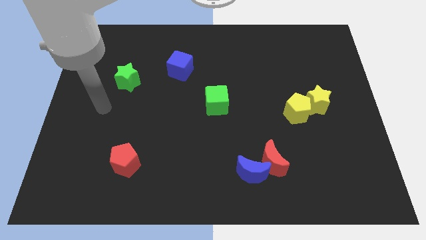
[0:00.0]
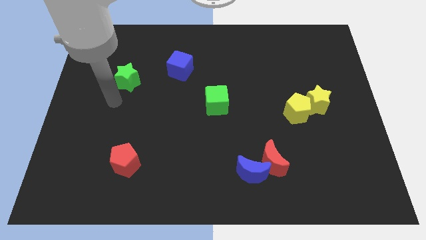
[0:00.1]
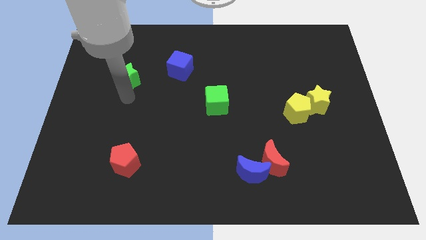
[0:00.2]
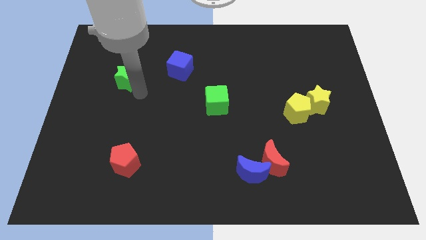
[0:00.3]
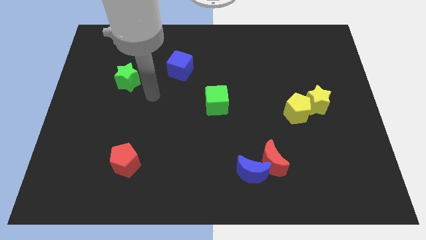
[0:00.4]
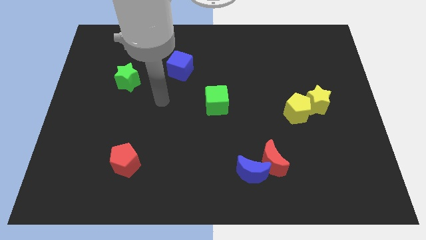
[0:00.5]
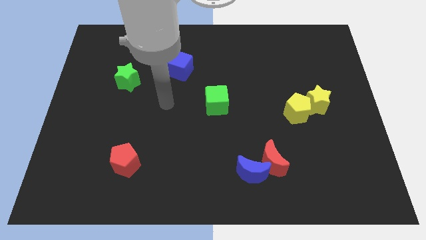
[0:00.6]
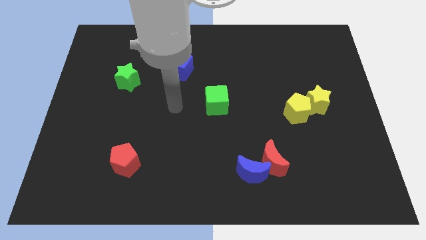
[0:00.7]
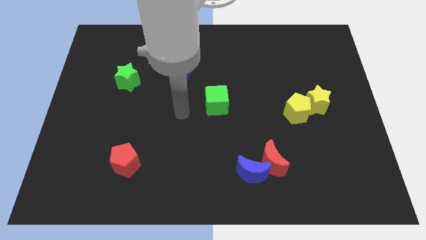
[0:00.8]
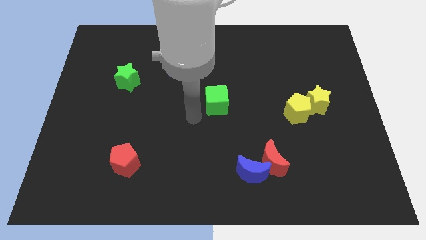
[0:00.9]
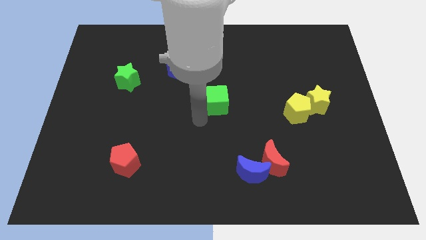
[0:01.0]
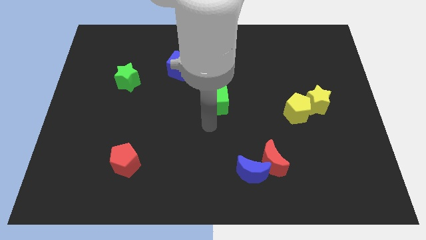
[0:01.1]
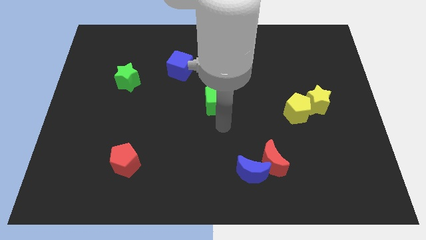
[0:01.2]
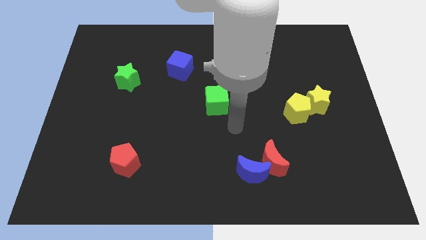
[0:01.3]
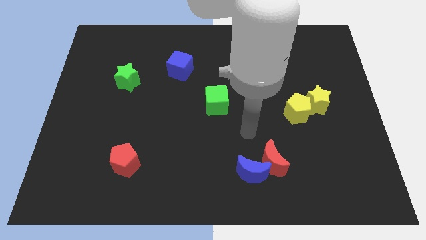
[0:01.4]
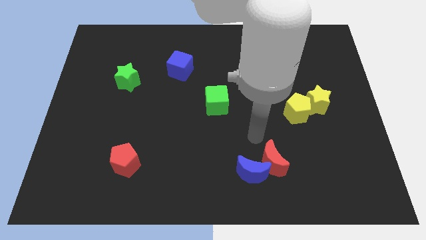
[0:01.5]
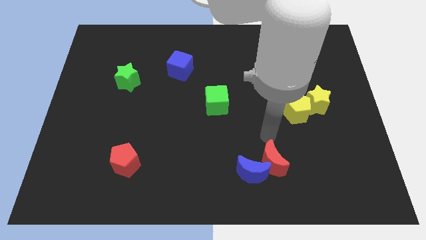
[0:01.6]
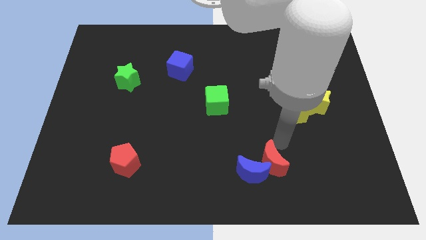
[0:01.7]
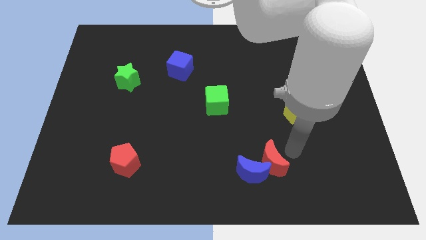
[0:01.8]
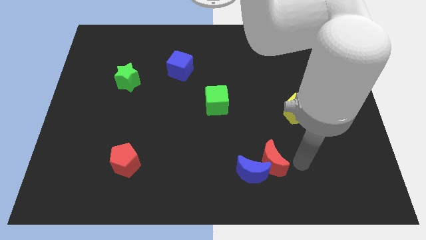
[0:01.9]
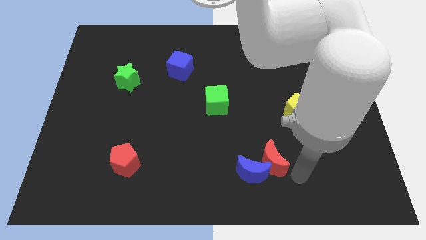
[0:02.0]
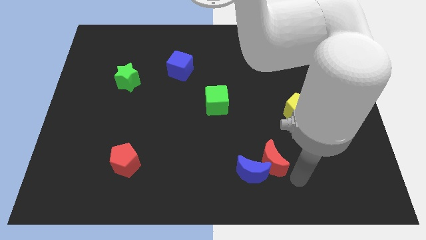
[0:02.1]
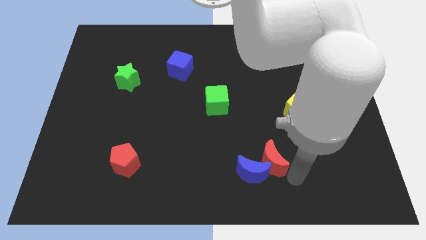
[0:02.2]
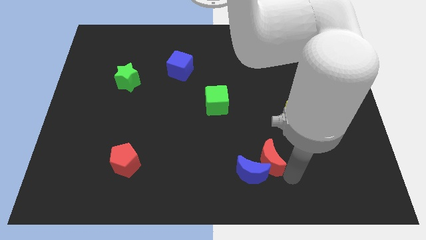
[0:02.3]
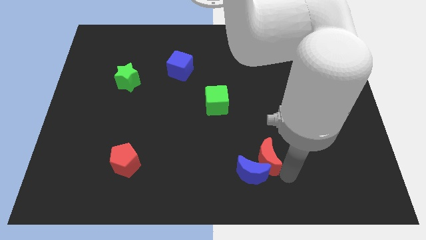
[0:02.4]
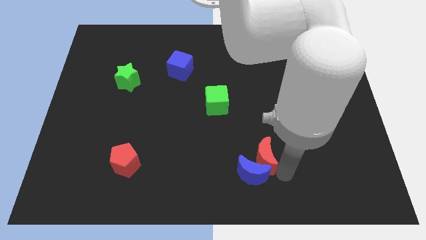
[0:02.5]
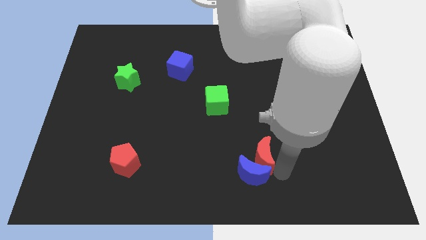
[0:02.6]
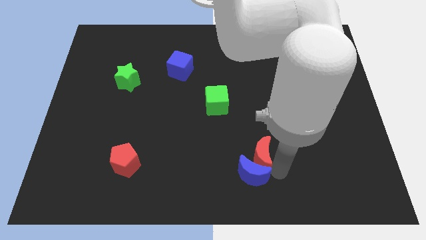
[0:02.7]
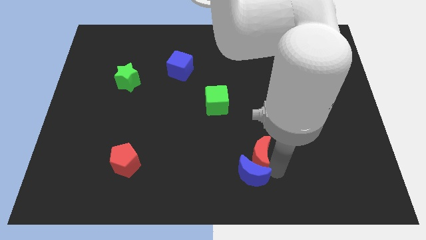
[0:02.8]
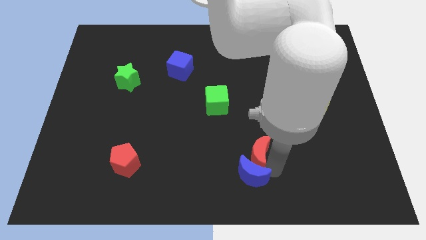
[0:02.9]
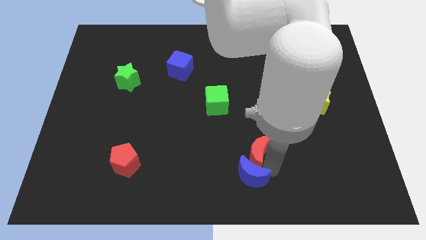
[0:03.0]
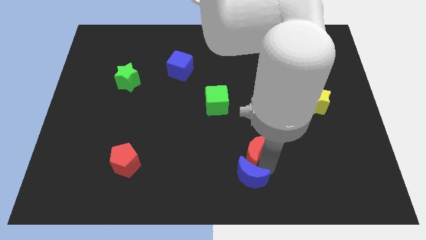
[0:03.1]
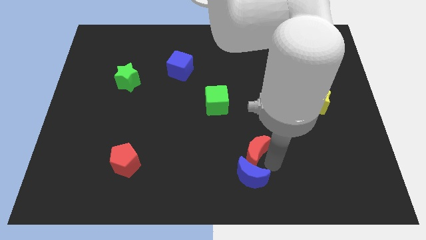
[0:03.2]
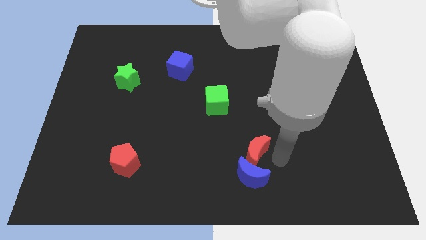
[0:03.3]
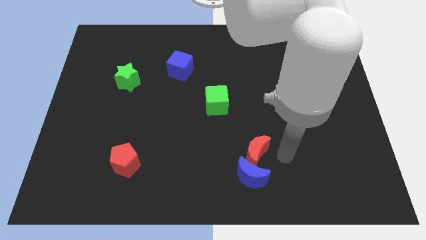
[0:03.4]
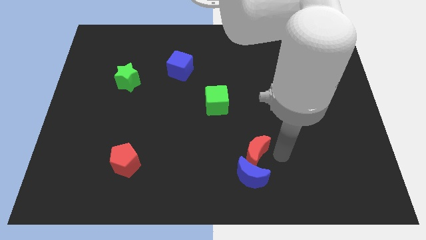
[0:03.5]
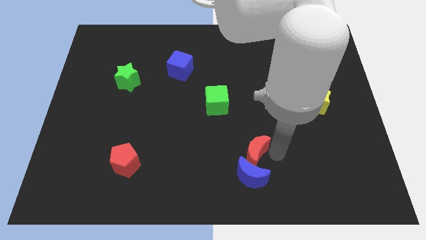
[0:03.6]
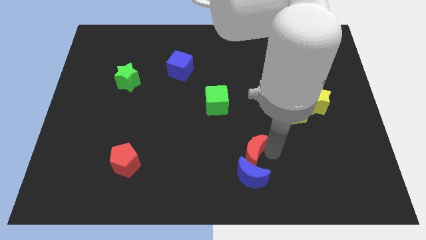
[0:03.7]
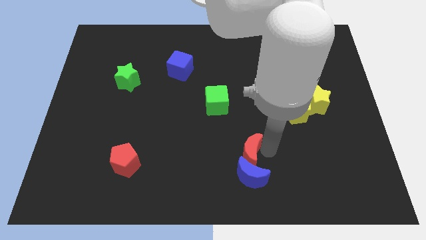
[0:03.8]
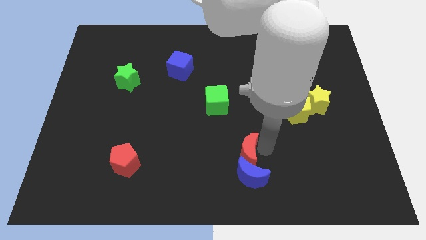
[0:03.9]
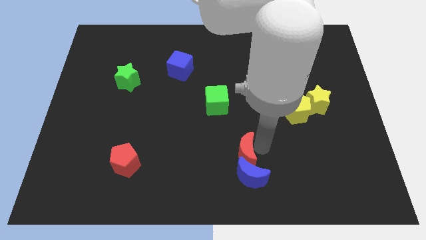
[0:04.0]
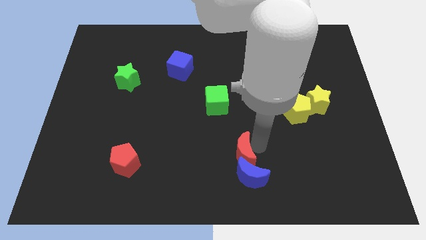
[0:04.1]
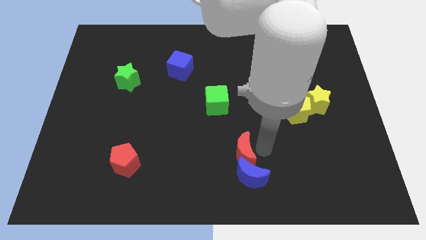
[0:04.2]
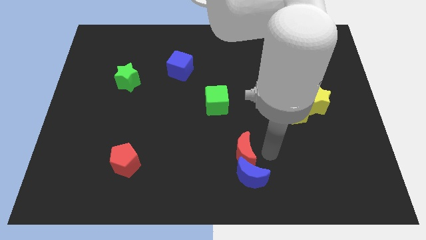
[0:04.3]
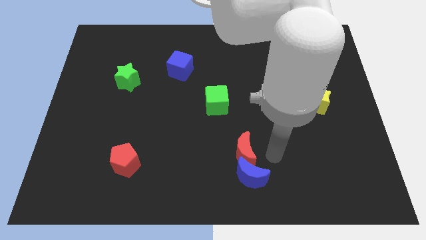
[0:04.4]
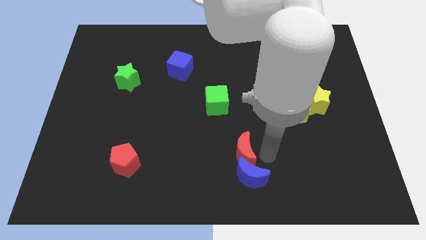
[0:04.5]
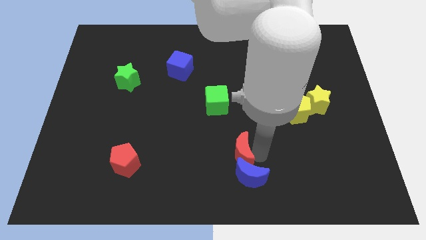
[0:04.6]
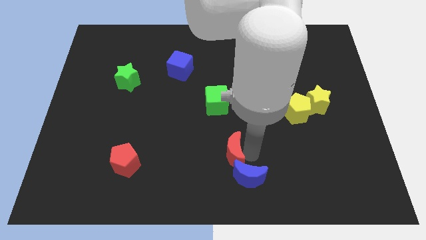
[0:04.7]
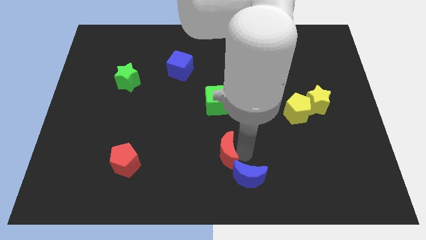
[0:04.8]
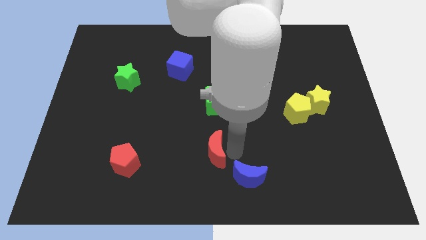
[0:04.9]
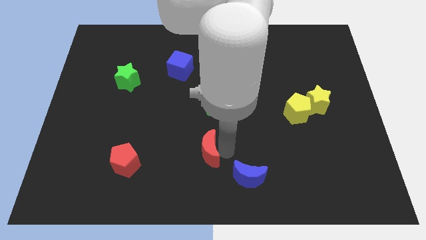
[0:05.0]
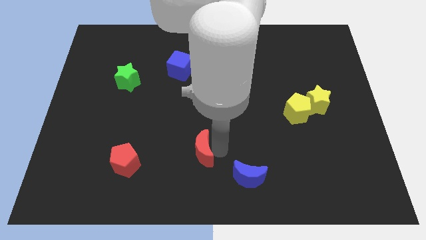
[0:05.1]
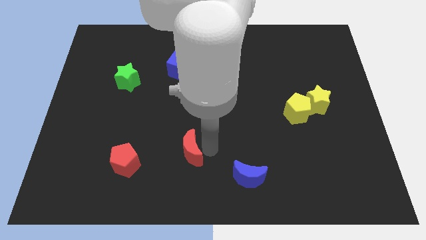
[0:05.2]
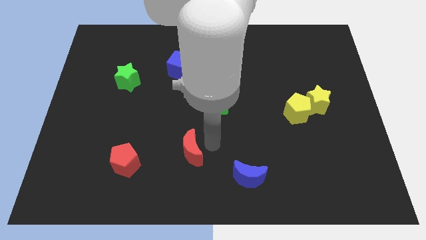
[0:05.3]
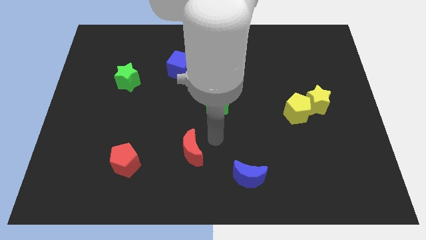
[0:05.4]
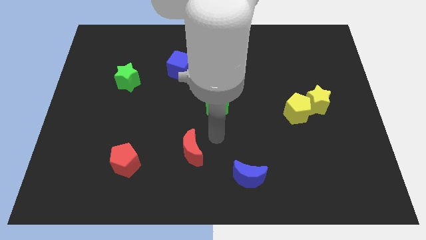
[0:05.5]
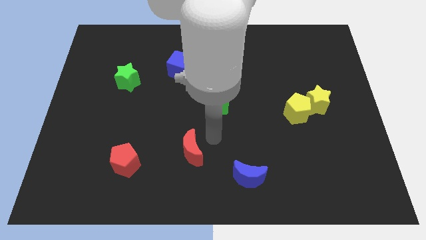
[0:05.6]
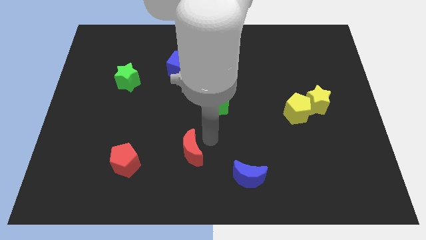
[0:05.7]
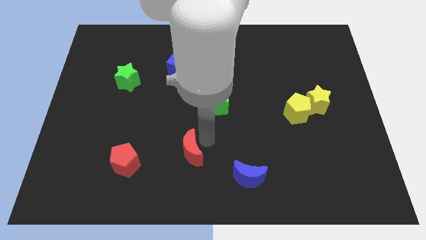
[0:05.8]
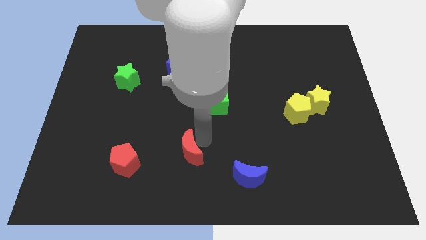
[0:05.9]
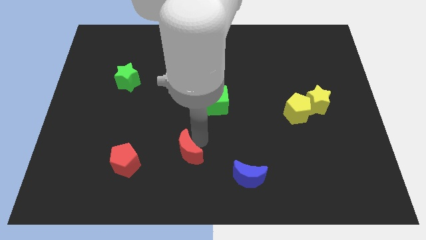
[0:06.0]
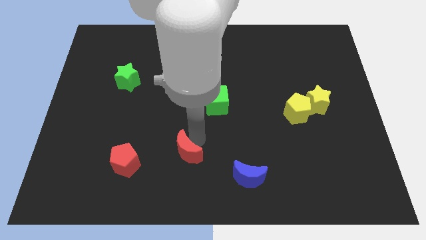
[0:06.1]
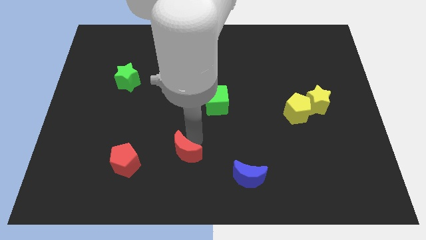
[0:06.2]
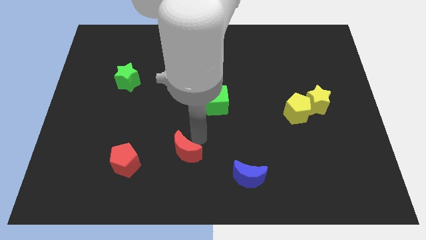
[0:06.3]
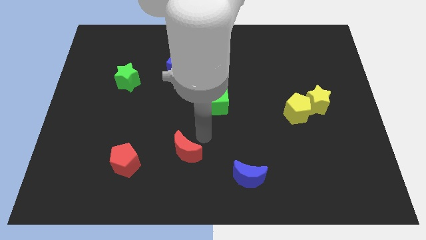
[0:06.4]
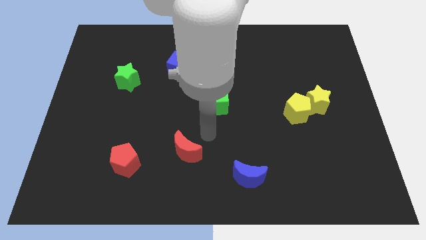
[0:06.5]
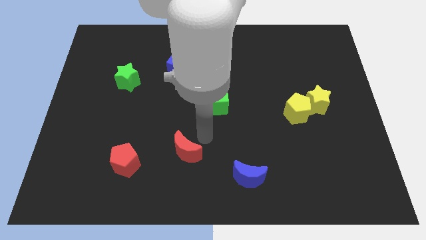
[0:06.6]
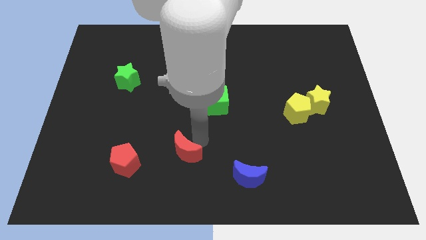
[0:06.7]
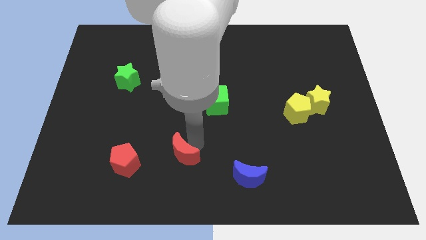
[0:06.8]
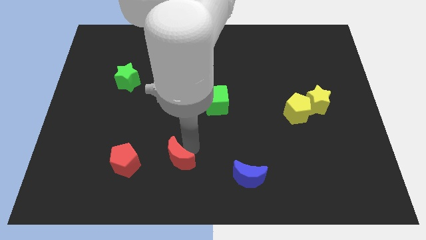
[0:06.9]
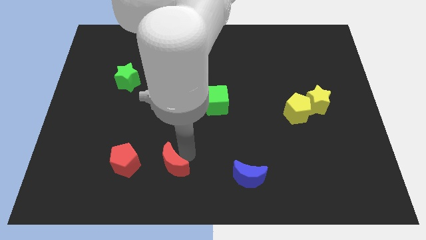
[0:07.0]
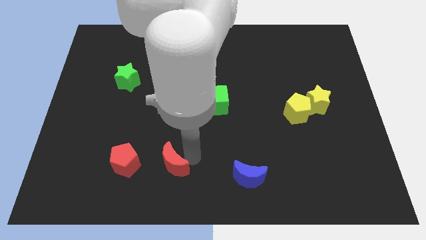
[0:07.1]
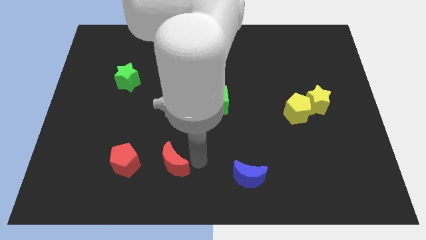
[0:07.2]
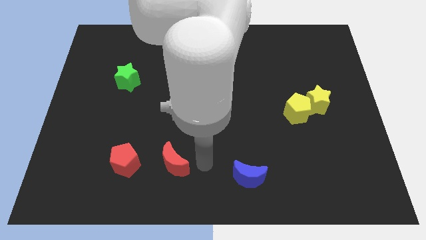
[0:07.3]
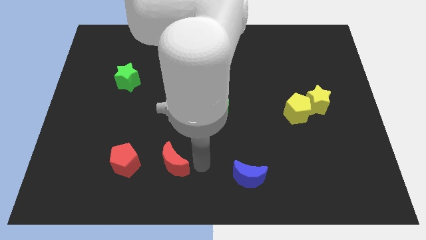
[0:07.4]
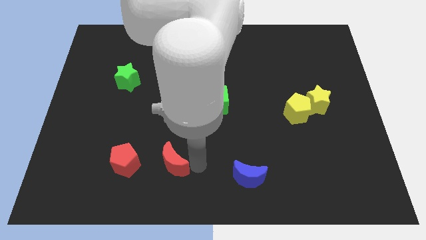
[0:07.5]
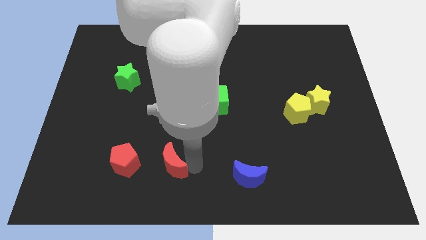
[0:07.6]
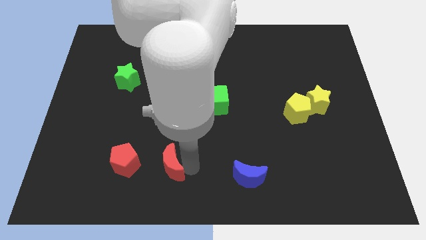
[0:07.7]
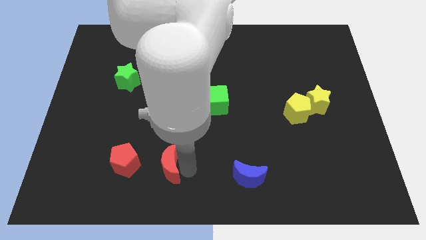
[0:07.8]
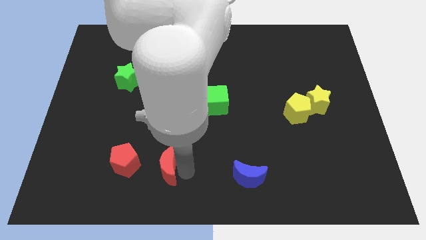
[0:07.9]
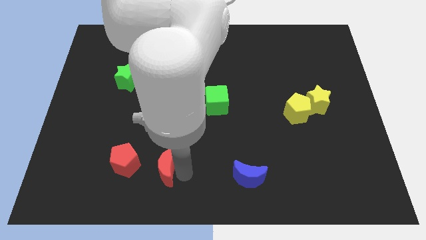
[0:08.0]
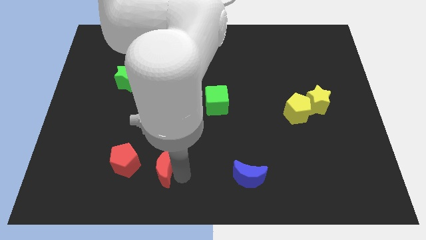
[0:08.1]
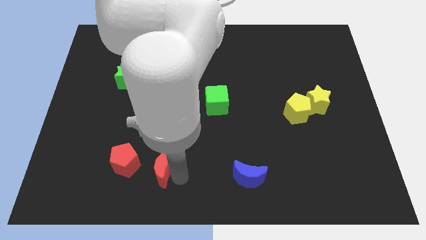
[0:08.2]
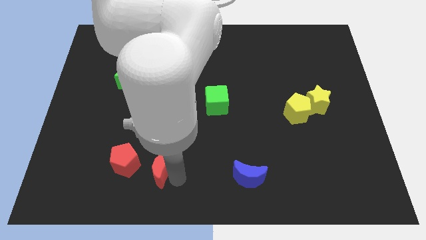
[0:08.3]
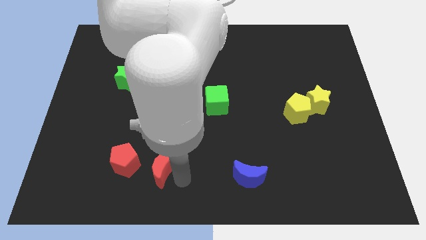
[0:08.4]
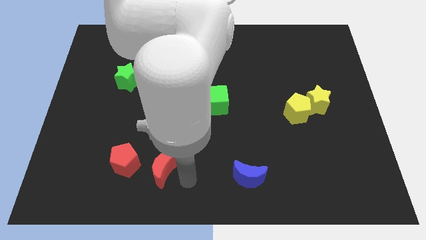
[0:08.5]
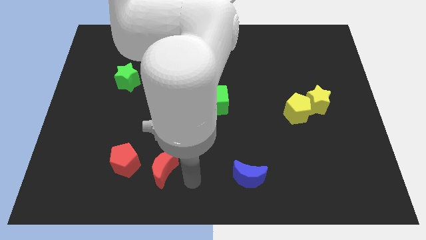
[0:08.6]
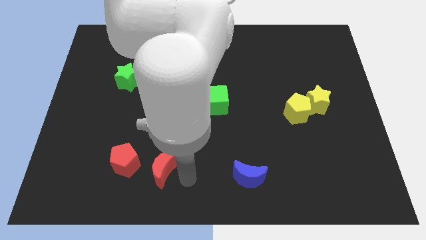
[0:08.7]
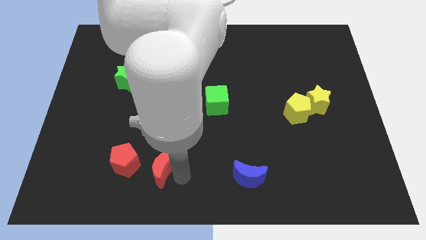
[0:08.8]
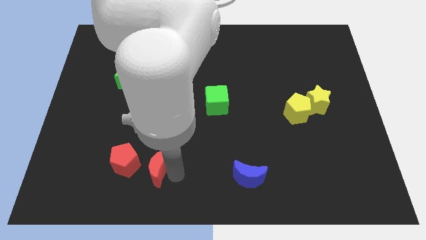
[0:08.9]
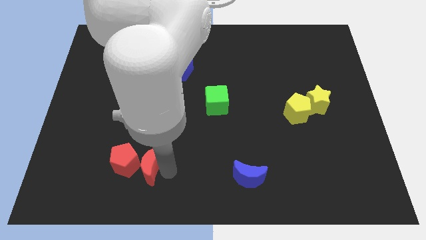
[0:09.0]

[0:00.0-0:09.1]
push the red moon close to the red pentagon
